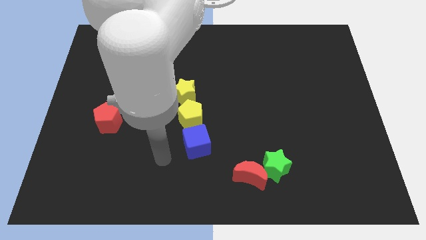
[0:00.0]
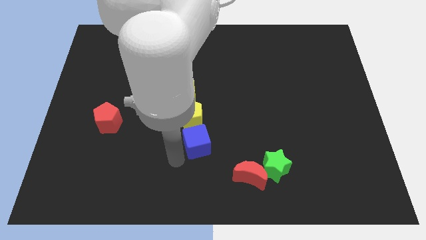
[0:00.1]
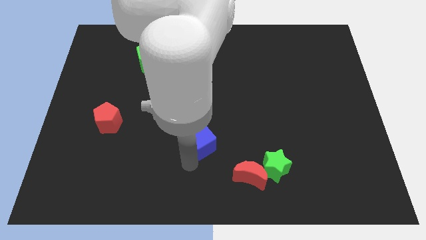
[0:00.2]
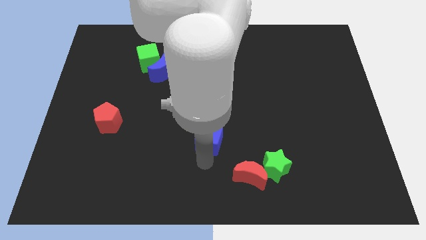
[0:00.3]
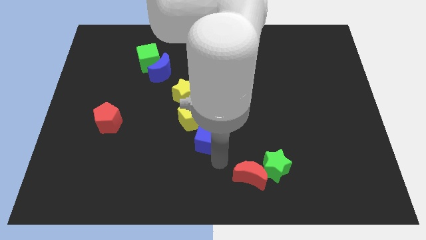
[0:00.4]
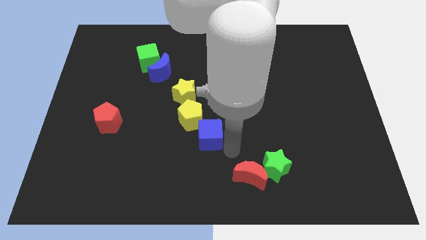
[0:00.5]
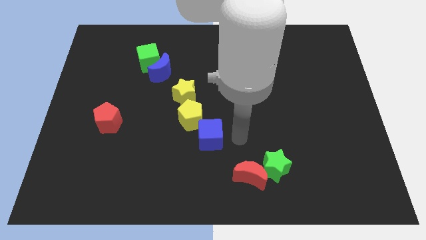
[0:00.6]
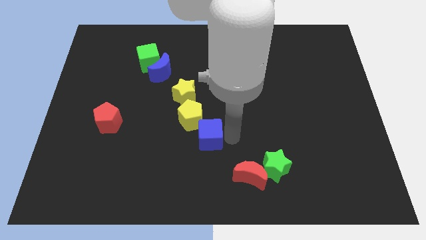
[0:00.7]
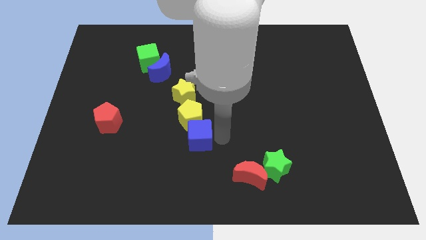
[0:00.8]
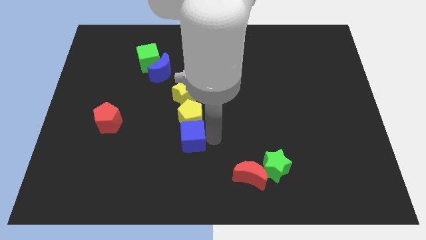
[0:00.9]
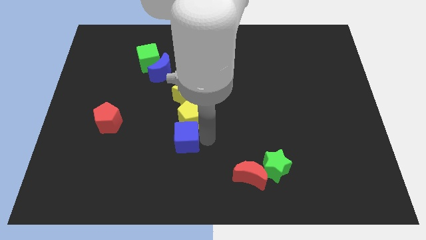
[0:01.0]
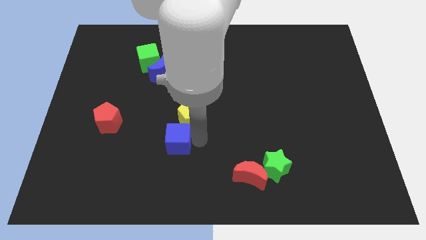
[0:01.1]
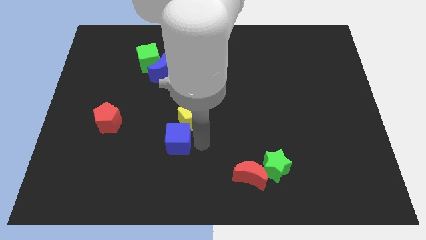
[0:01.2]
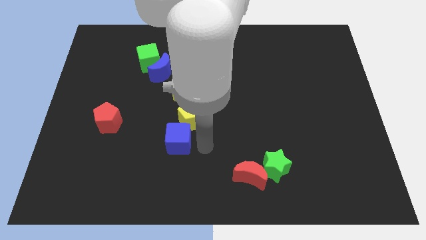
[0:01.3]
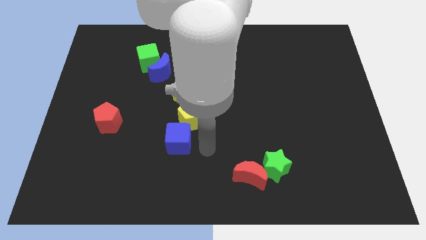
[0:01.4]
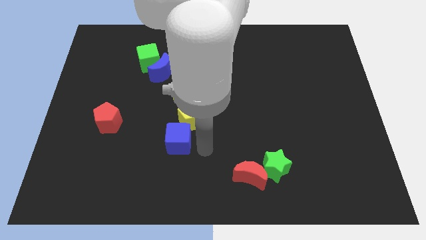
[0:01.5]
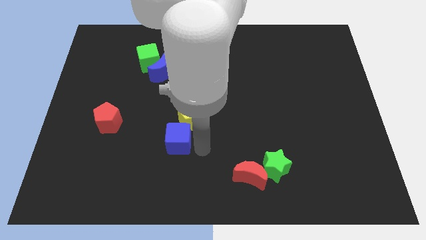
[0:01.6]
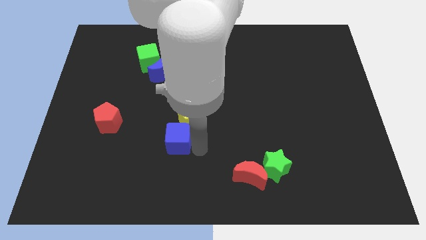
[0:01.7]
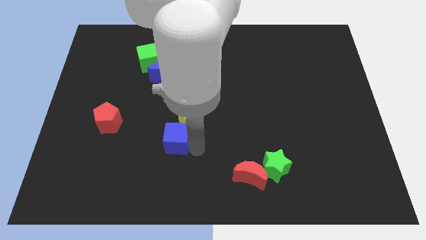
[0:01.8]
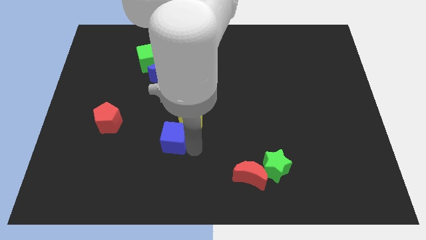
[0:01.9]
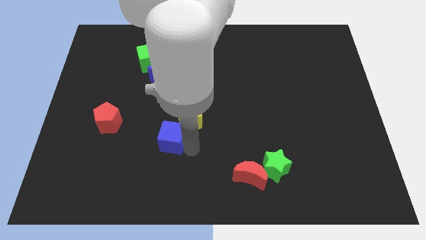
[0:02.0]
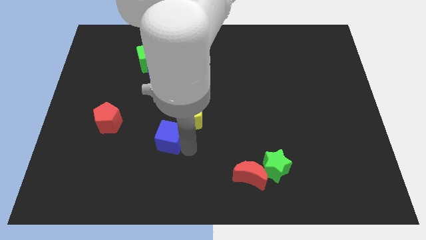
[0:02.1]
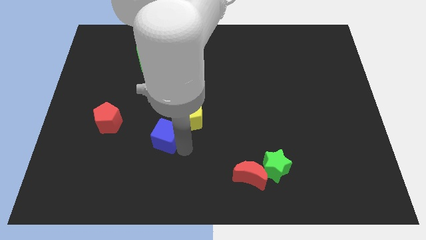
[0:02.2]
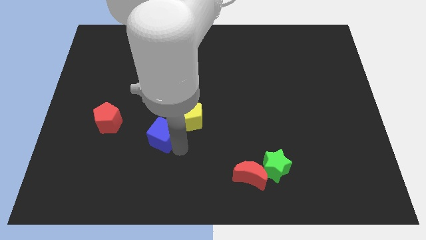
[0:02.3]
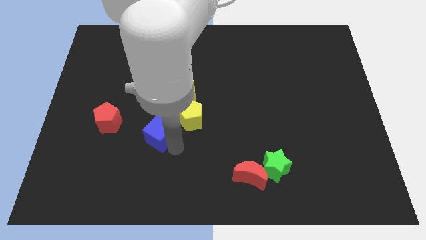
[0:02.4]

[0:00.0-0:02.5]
slide the blue cube somewhat up and then left

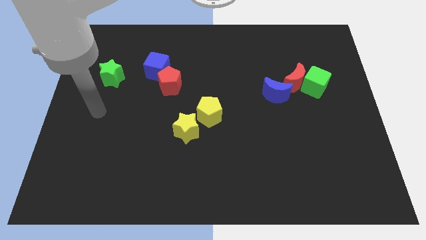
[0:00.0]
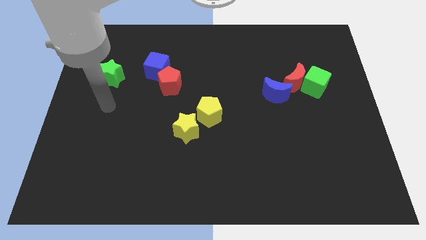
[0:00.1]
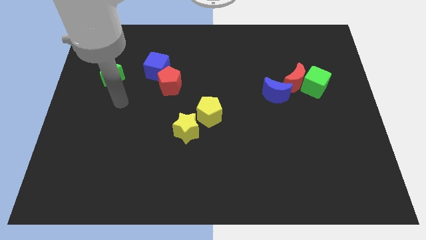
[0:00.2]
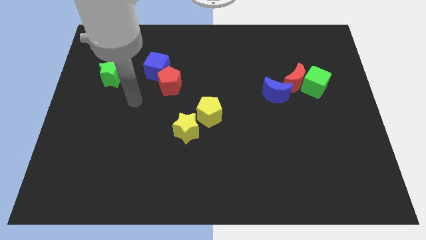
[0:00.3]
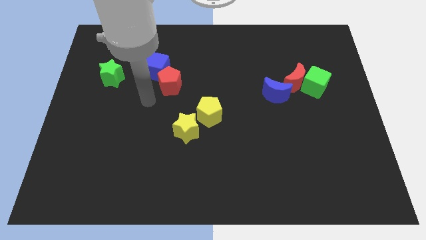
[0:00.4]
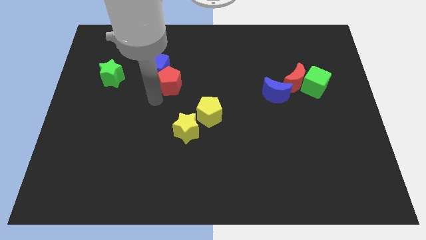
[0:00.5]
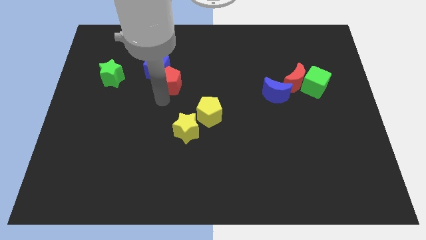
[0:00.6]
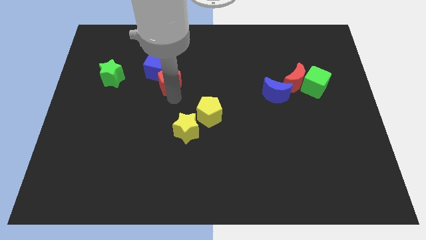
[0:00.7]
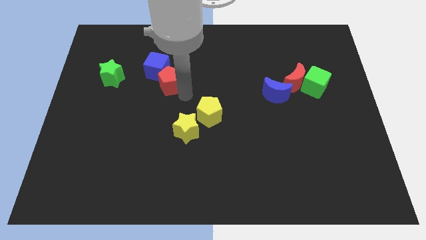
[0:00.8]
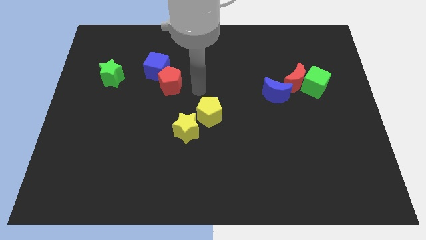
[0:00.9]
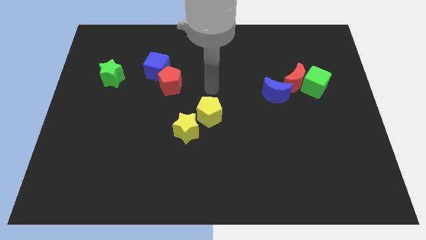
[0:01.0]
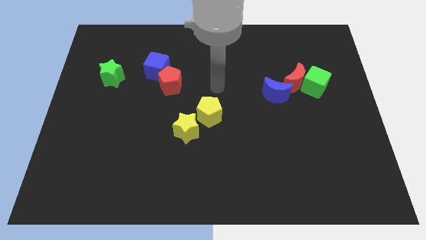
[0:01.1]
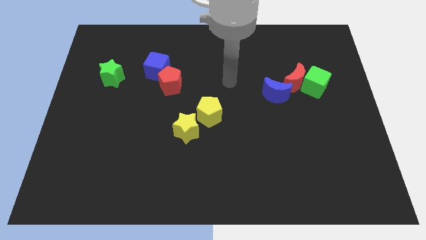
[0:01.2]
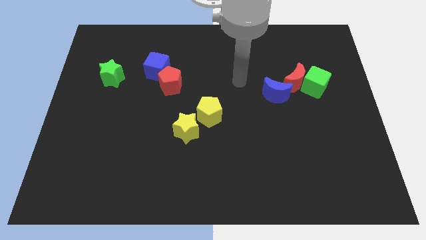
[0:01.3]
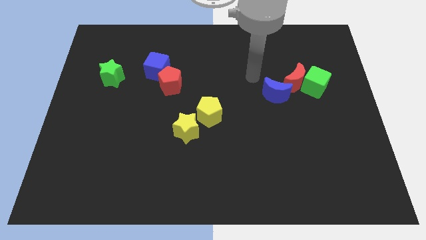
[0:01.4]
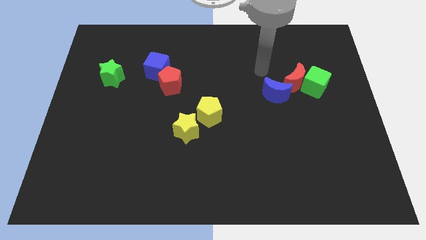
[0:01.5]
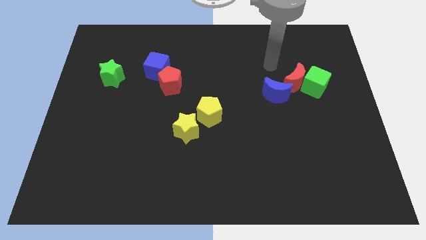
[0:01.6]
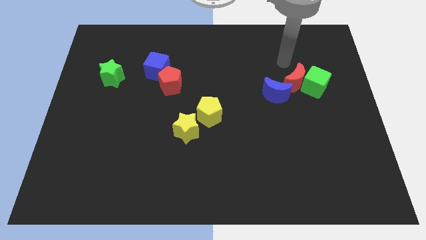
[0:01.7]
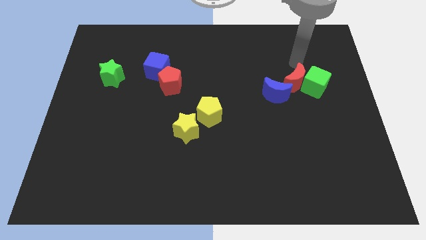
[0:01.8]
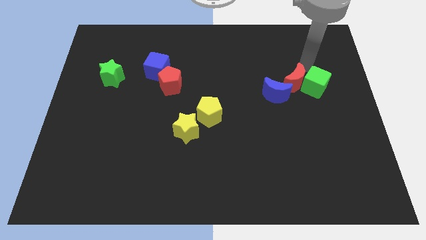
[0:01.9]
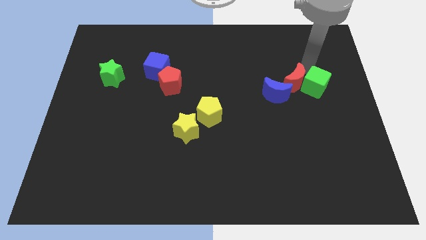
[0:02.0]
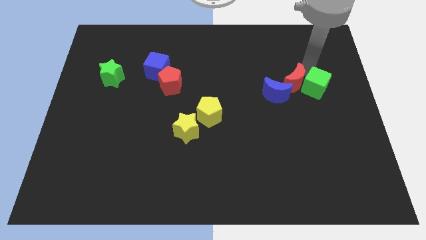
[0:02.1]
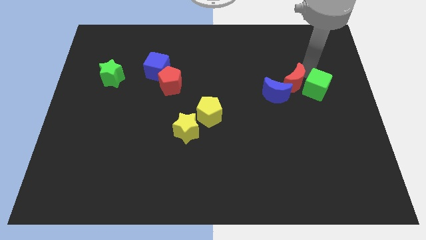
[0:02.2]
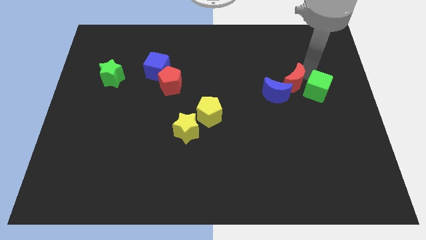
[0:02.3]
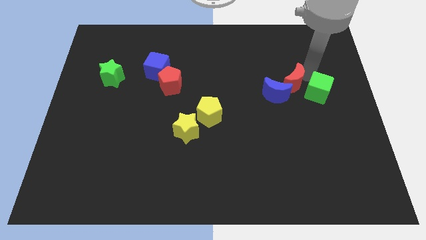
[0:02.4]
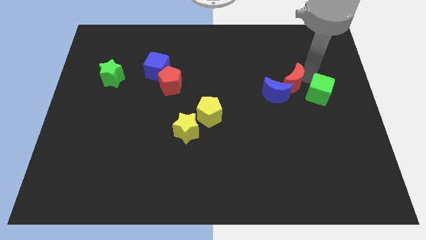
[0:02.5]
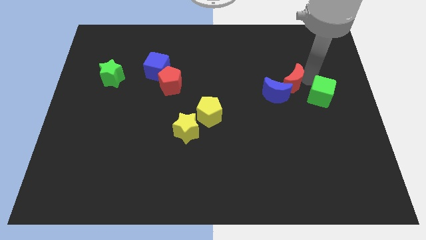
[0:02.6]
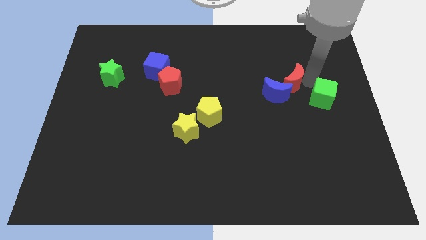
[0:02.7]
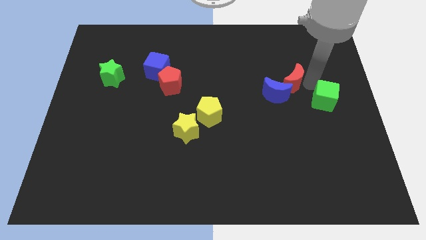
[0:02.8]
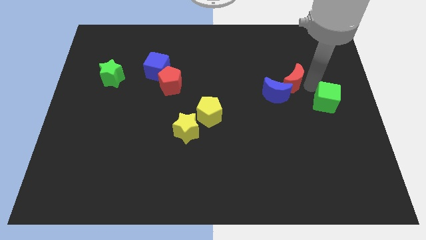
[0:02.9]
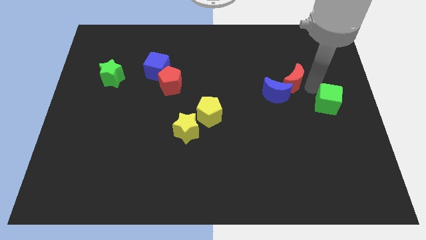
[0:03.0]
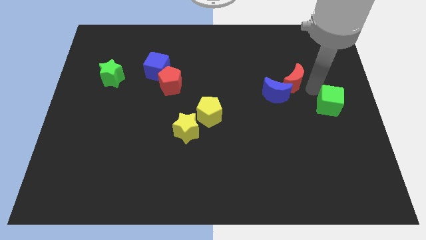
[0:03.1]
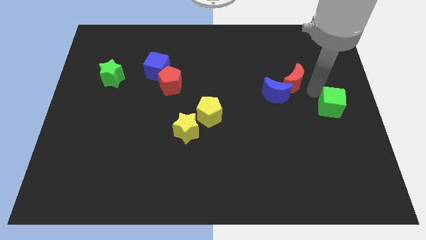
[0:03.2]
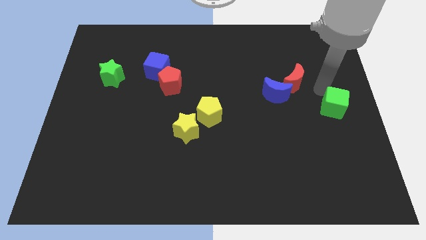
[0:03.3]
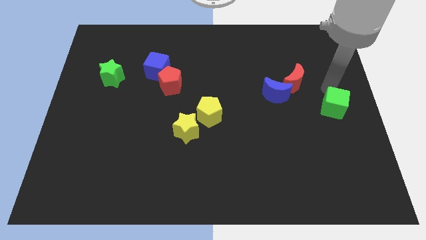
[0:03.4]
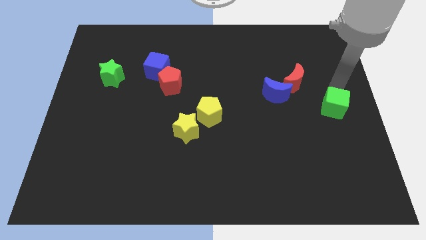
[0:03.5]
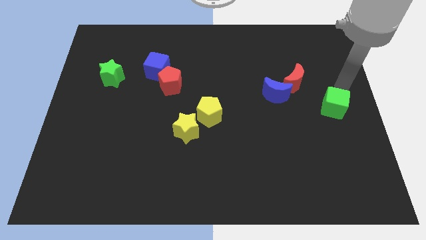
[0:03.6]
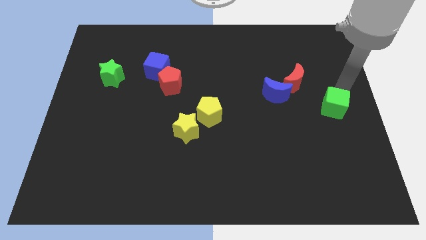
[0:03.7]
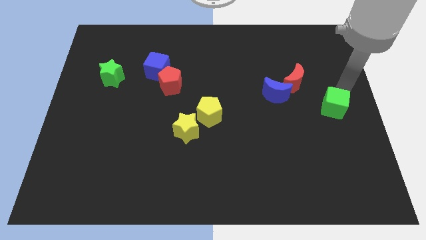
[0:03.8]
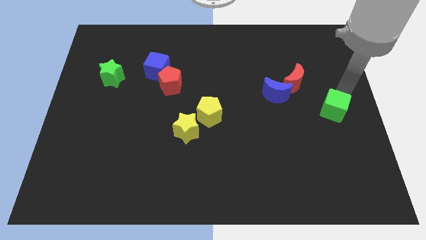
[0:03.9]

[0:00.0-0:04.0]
slide the green cube down slightly

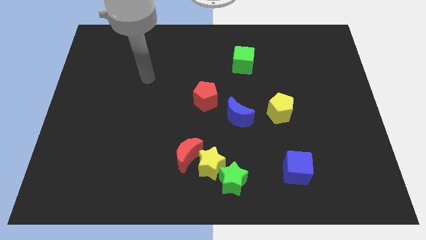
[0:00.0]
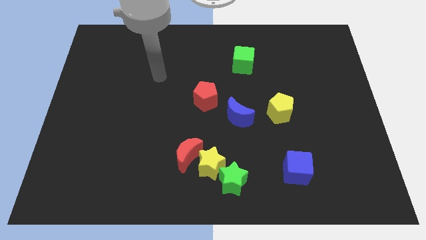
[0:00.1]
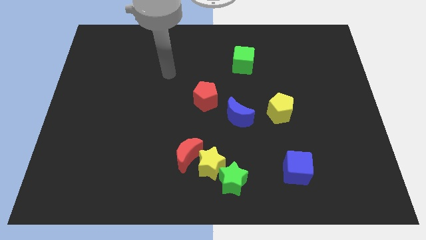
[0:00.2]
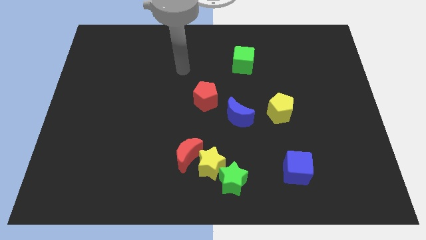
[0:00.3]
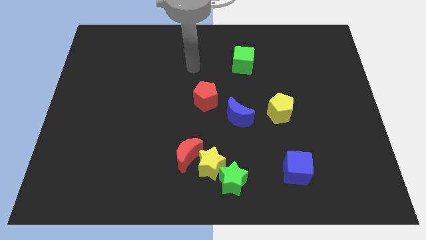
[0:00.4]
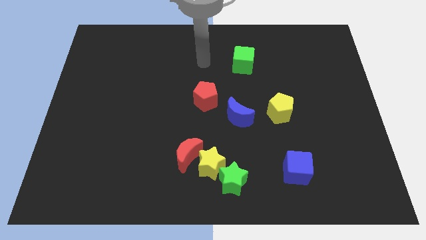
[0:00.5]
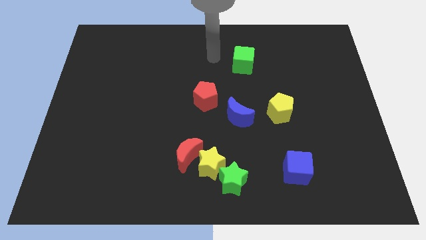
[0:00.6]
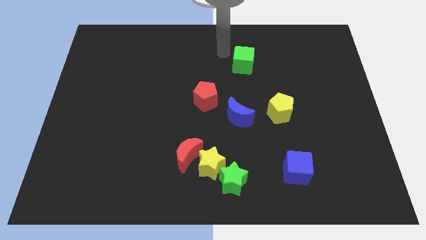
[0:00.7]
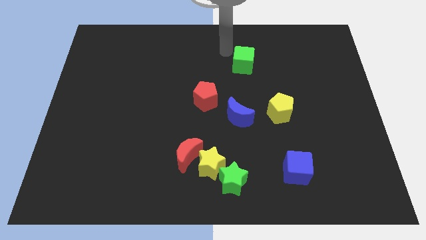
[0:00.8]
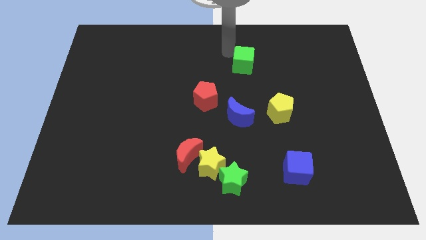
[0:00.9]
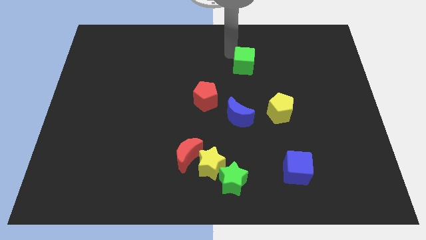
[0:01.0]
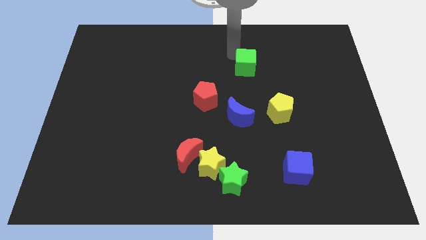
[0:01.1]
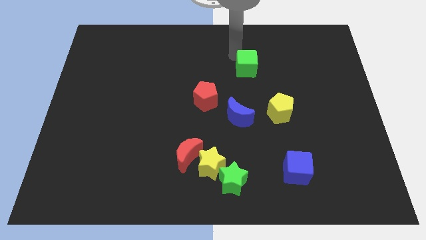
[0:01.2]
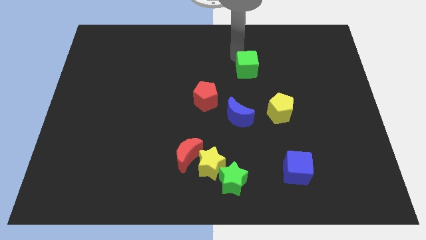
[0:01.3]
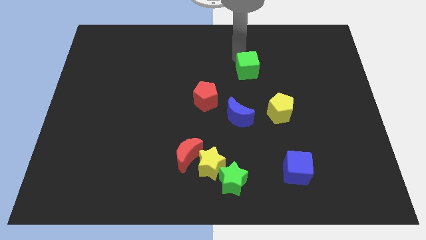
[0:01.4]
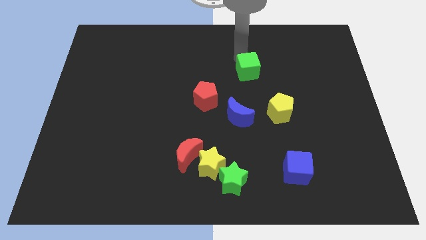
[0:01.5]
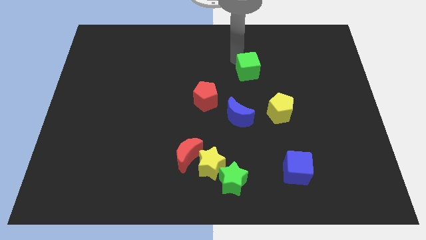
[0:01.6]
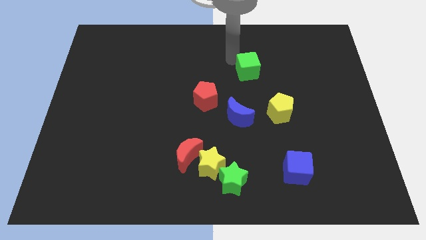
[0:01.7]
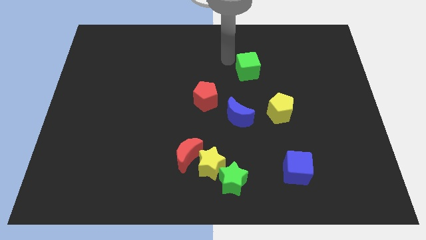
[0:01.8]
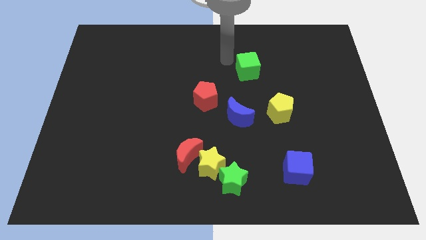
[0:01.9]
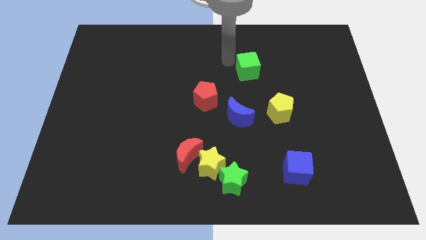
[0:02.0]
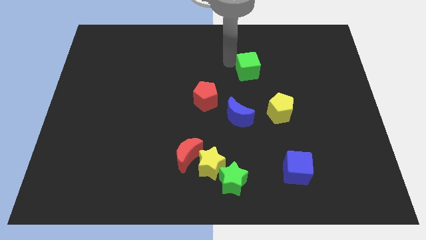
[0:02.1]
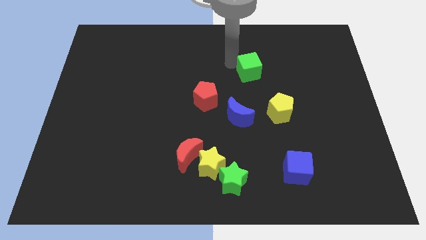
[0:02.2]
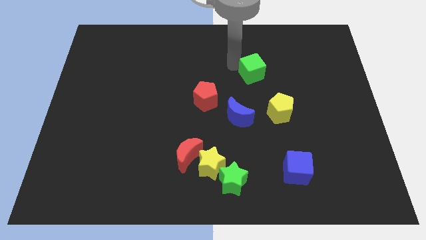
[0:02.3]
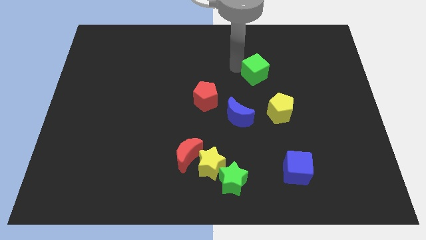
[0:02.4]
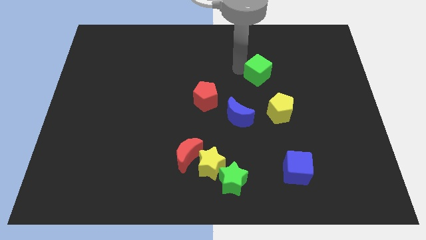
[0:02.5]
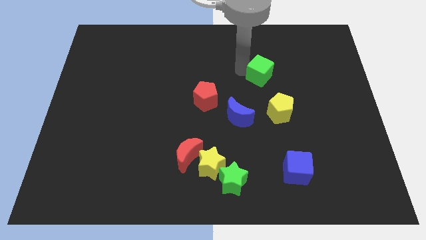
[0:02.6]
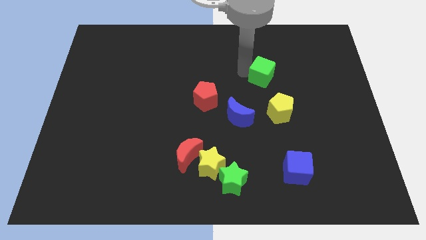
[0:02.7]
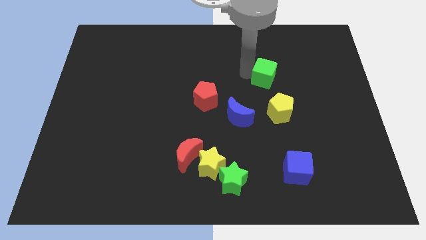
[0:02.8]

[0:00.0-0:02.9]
push the green cube a bit down and then right
